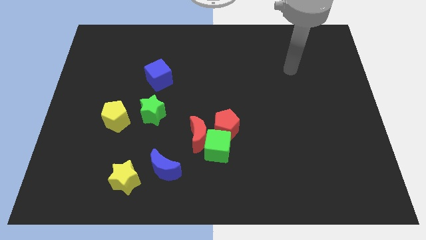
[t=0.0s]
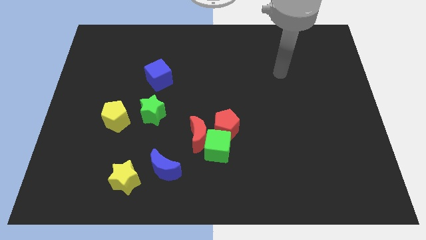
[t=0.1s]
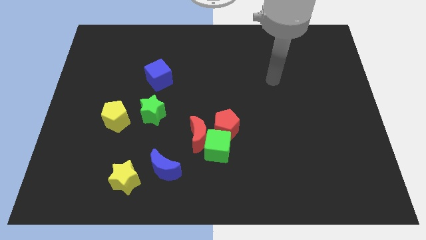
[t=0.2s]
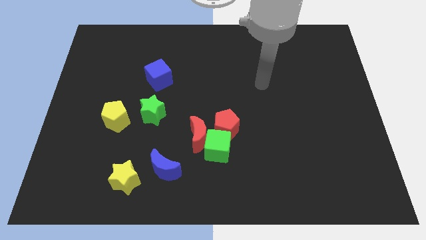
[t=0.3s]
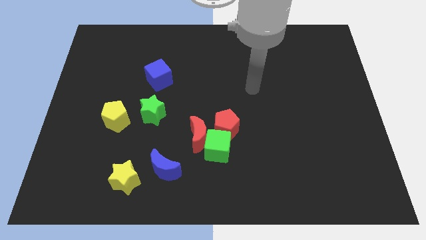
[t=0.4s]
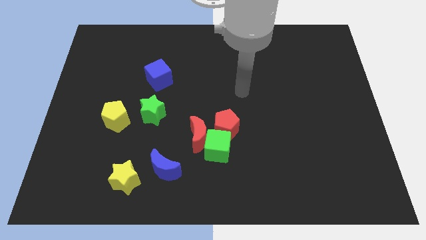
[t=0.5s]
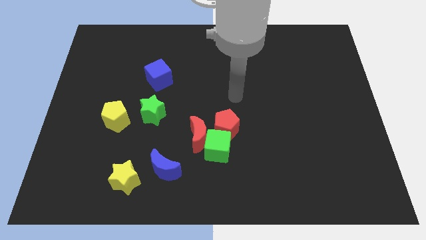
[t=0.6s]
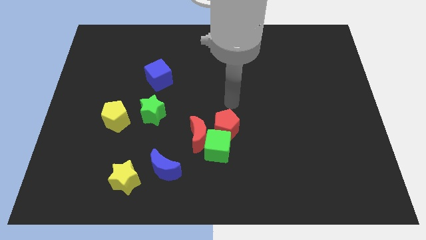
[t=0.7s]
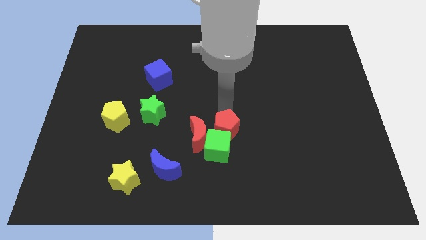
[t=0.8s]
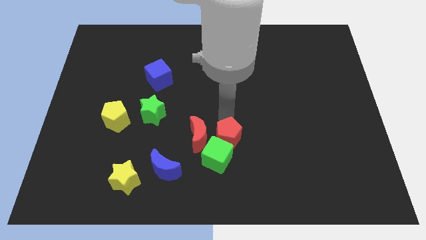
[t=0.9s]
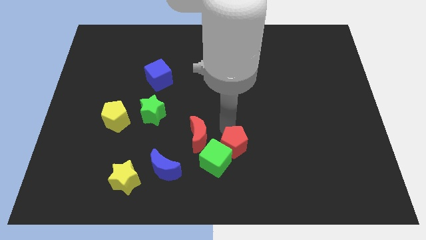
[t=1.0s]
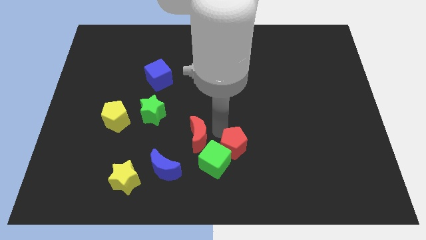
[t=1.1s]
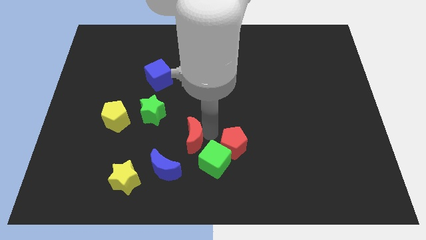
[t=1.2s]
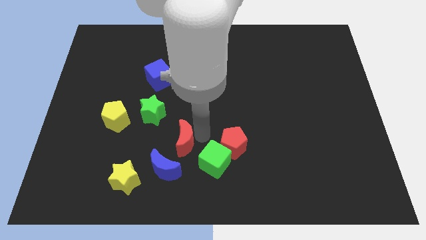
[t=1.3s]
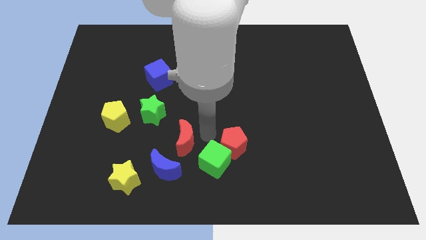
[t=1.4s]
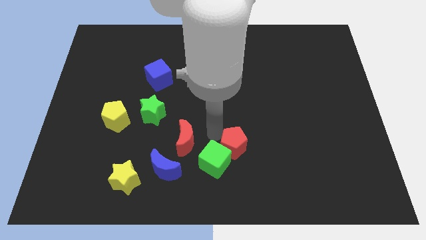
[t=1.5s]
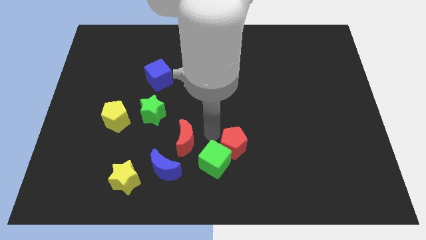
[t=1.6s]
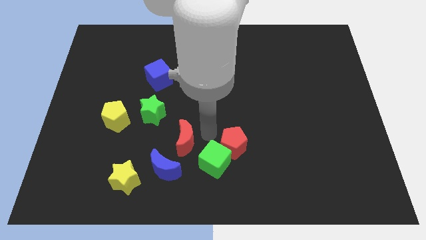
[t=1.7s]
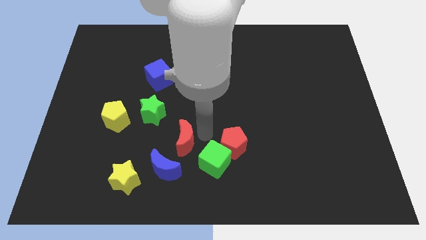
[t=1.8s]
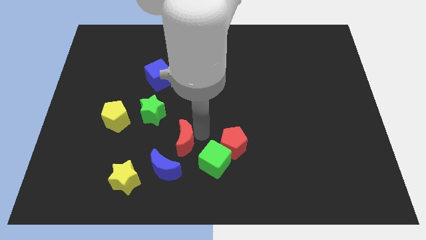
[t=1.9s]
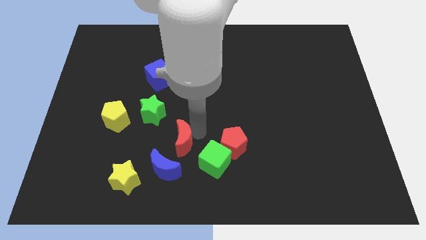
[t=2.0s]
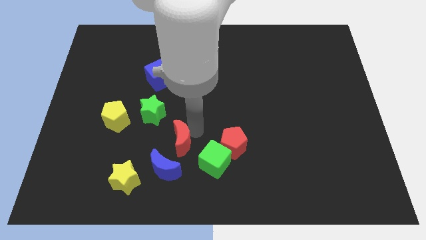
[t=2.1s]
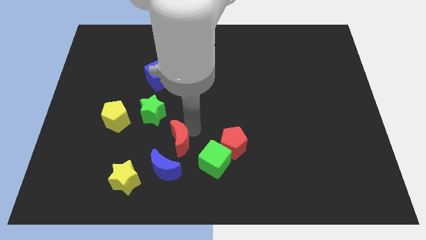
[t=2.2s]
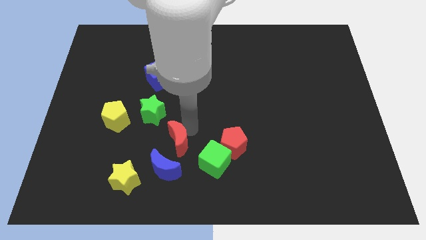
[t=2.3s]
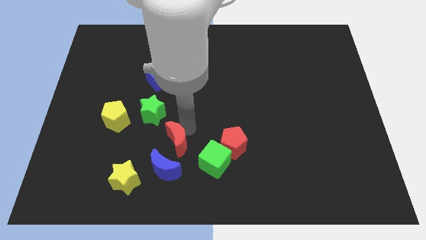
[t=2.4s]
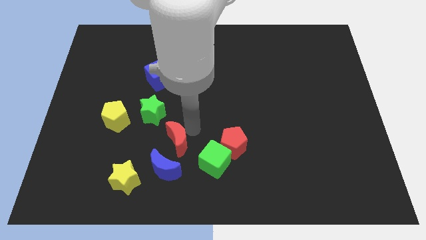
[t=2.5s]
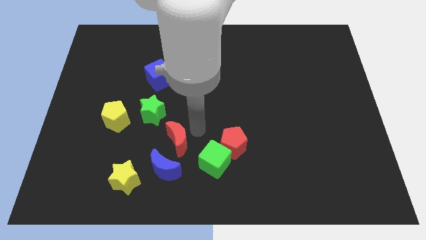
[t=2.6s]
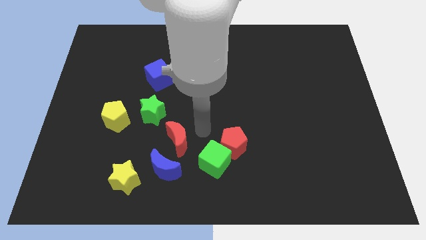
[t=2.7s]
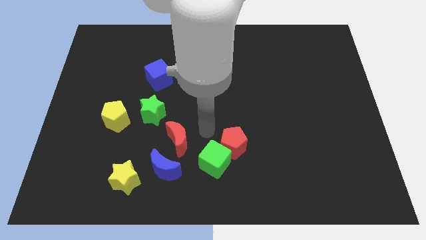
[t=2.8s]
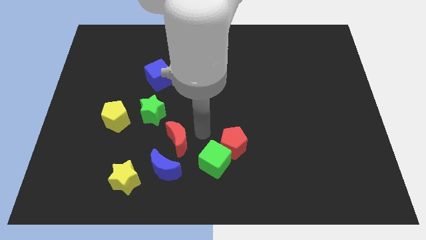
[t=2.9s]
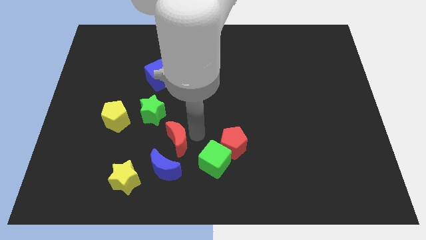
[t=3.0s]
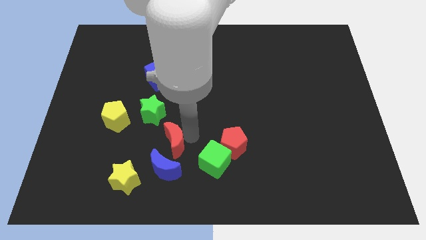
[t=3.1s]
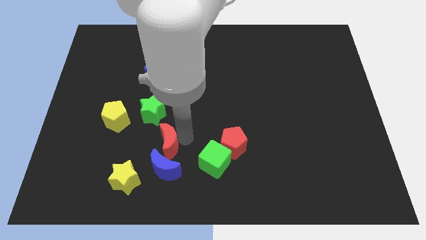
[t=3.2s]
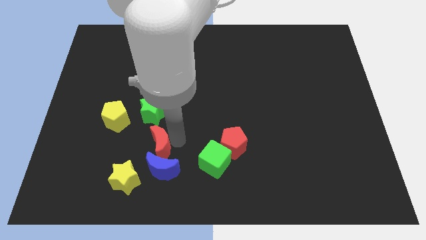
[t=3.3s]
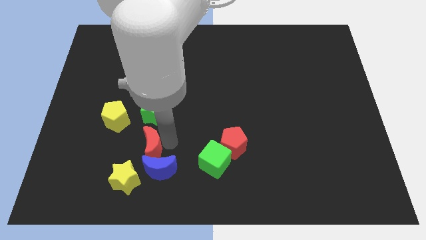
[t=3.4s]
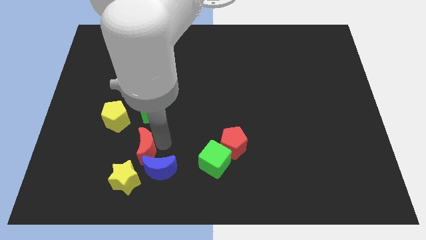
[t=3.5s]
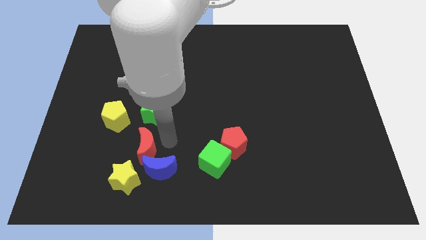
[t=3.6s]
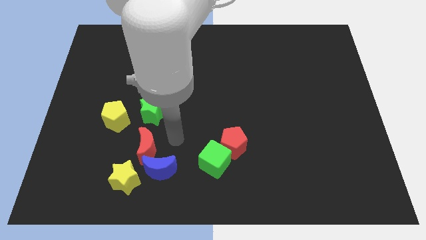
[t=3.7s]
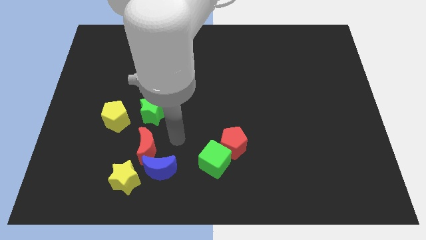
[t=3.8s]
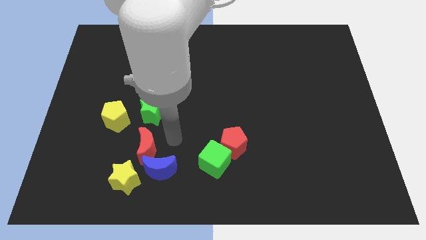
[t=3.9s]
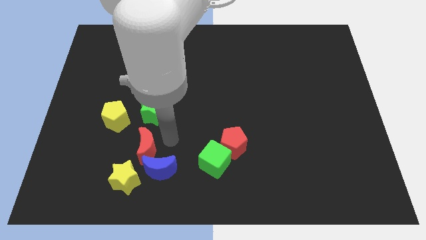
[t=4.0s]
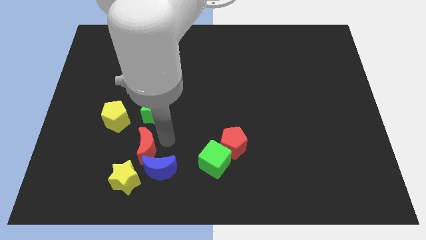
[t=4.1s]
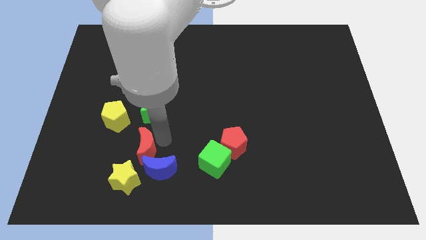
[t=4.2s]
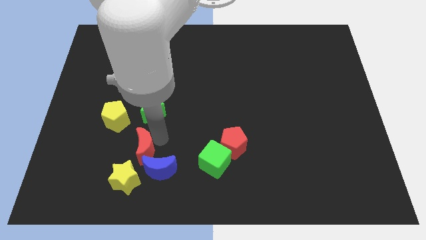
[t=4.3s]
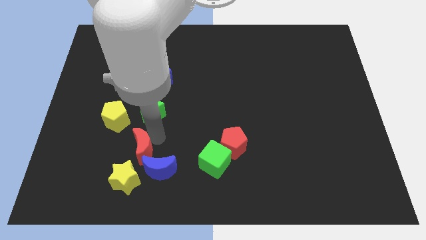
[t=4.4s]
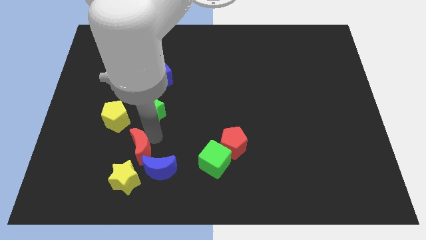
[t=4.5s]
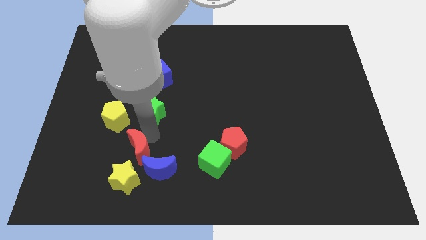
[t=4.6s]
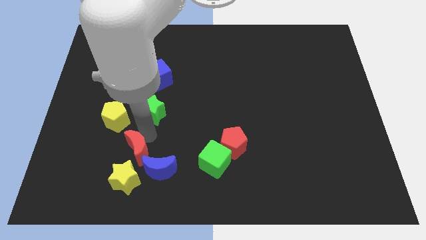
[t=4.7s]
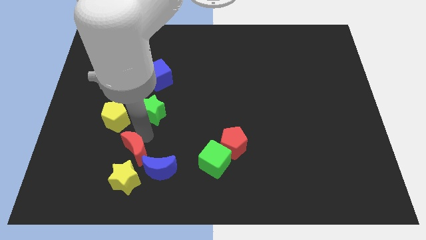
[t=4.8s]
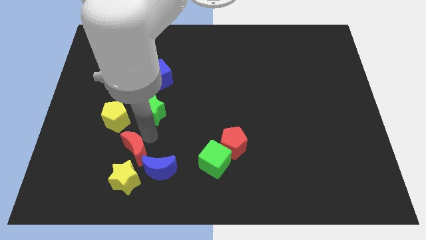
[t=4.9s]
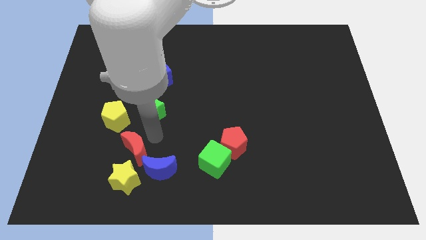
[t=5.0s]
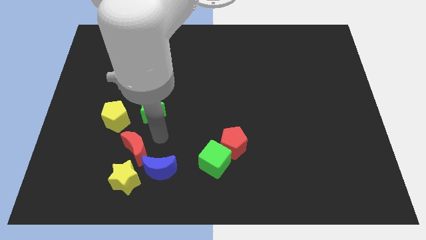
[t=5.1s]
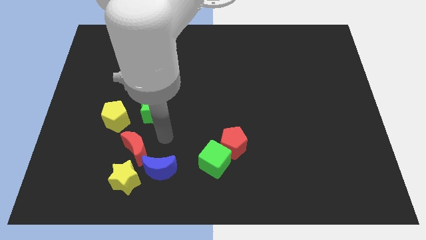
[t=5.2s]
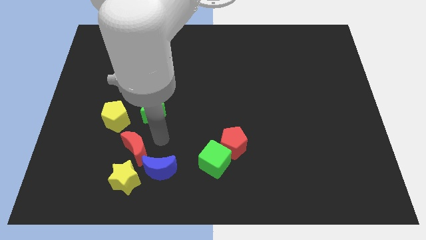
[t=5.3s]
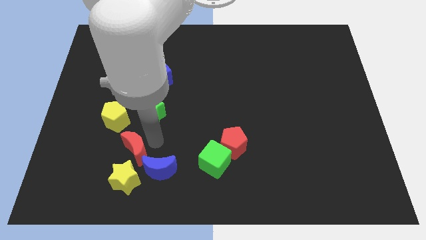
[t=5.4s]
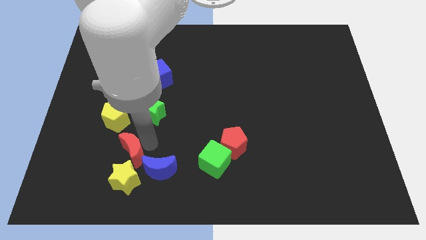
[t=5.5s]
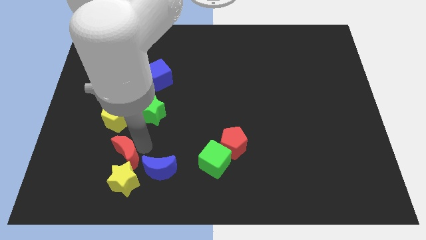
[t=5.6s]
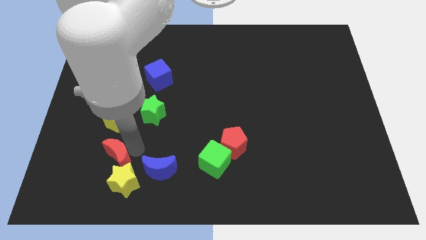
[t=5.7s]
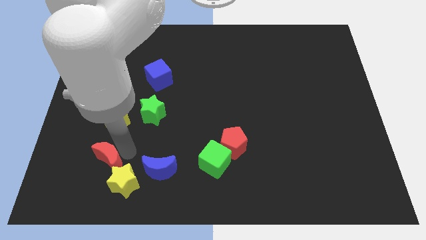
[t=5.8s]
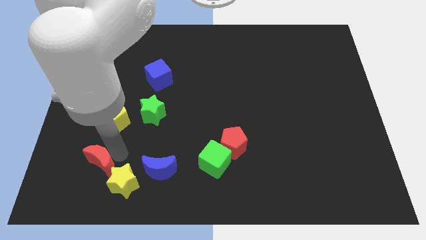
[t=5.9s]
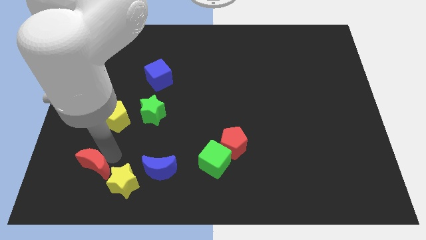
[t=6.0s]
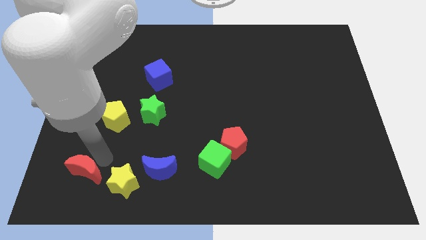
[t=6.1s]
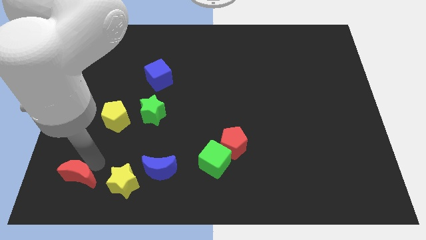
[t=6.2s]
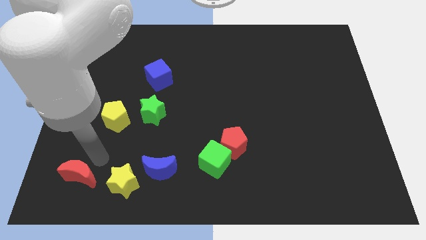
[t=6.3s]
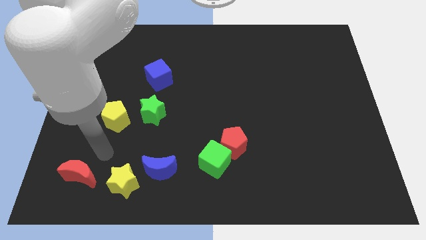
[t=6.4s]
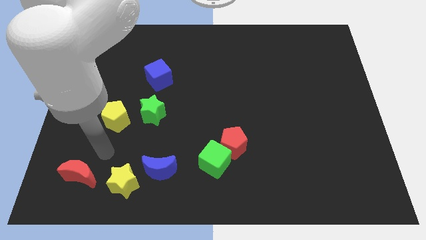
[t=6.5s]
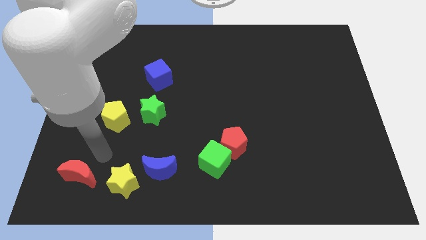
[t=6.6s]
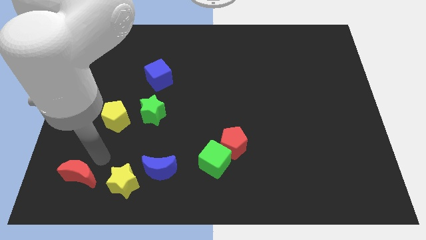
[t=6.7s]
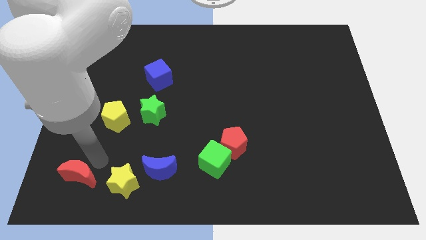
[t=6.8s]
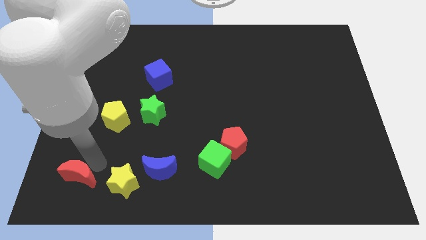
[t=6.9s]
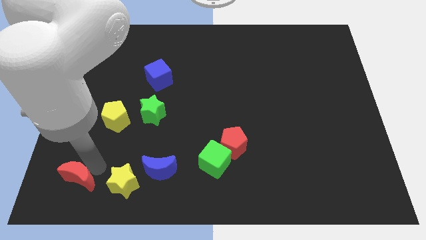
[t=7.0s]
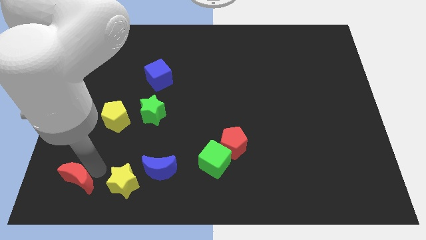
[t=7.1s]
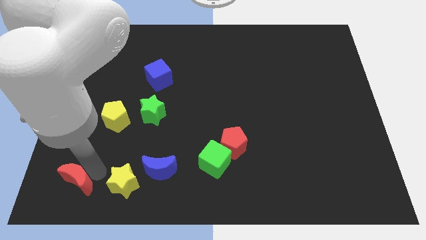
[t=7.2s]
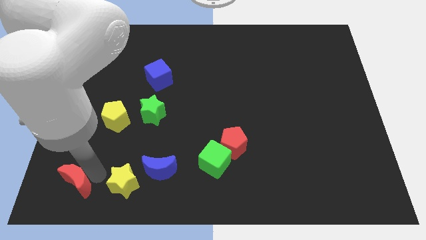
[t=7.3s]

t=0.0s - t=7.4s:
slide the red moon to the bottom left corner
